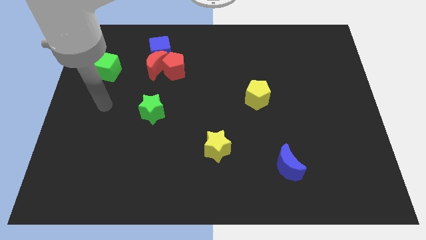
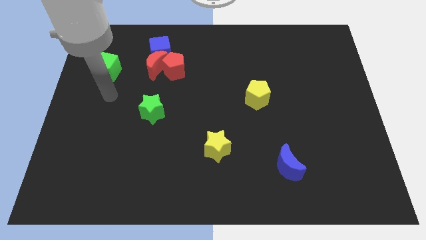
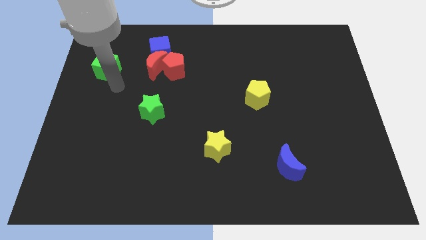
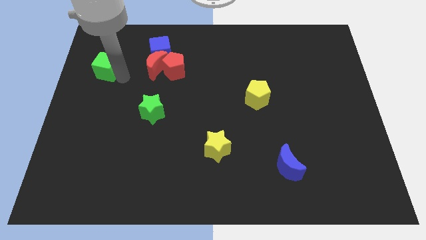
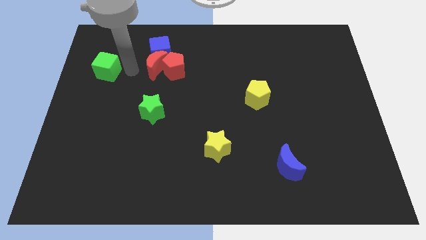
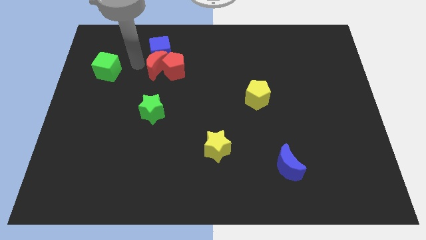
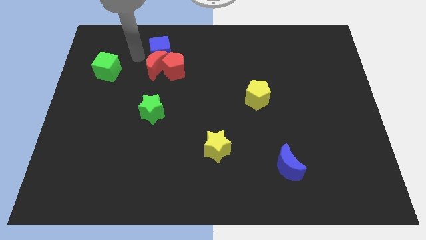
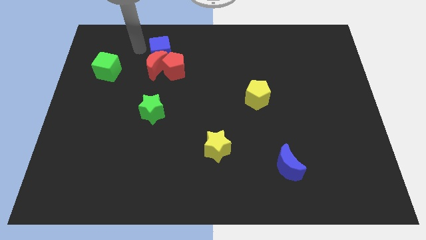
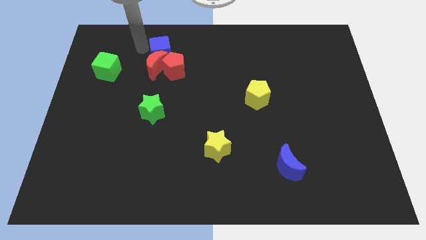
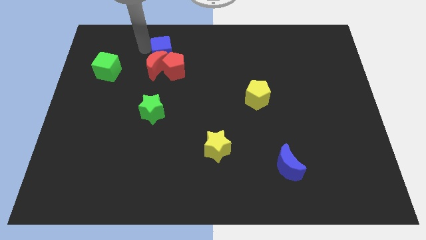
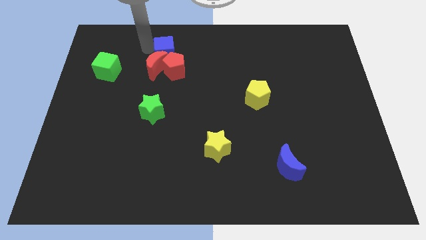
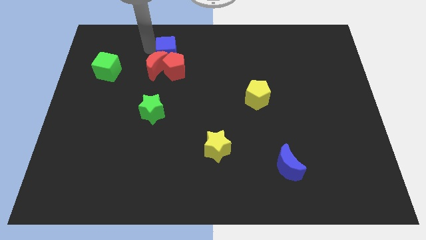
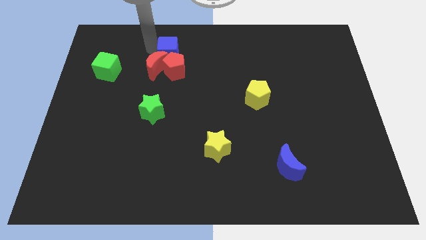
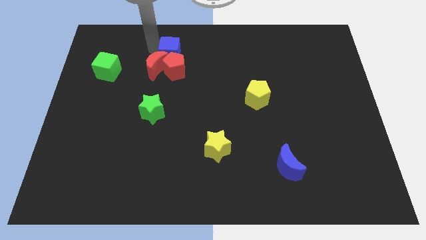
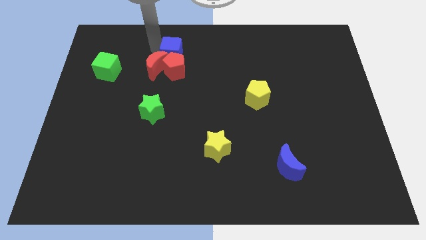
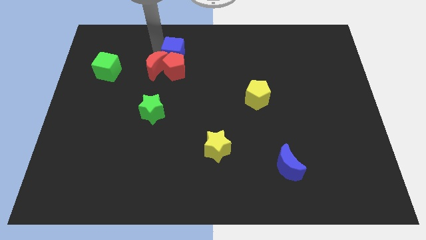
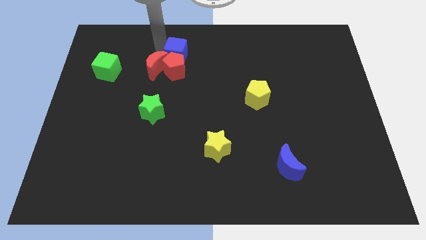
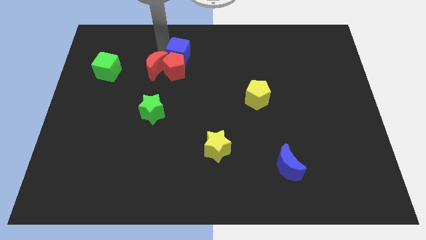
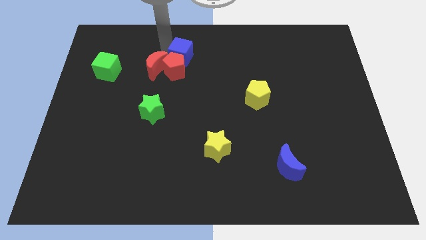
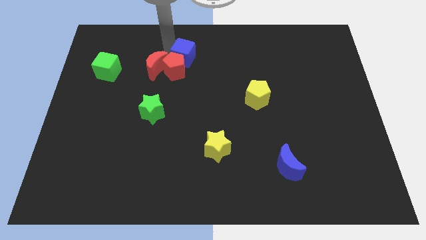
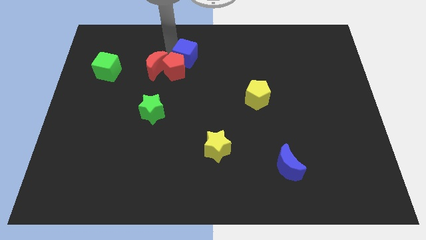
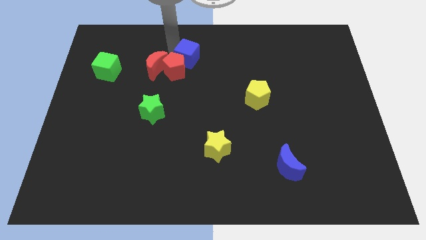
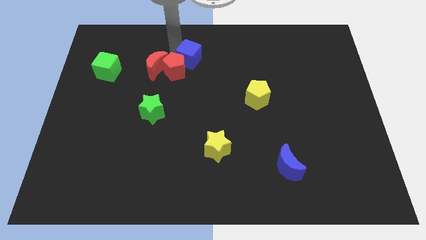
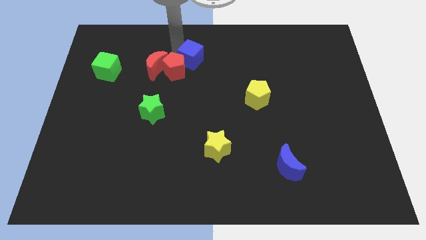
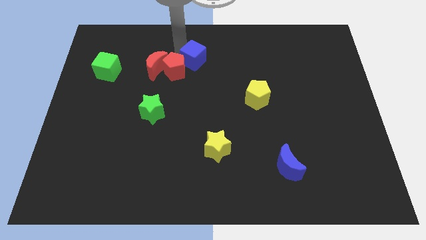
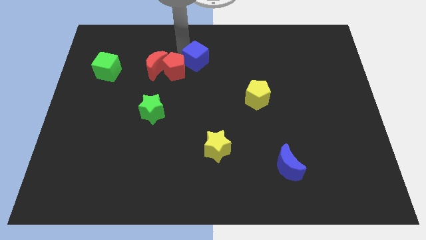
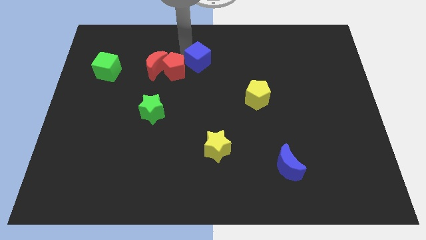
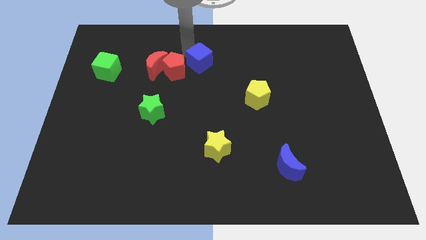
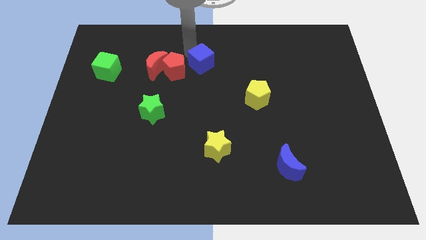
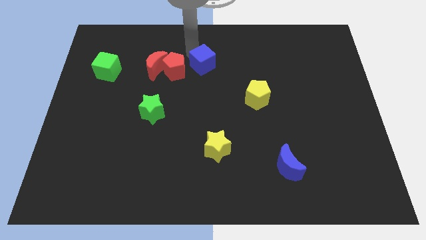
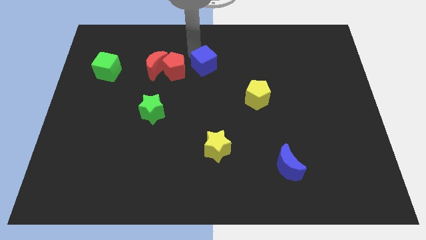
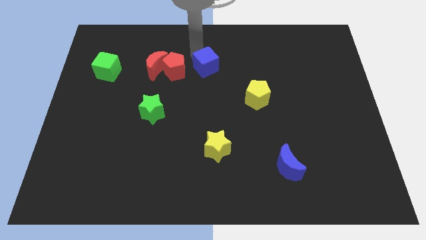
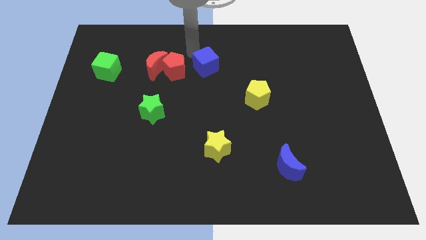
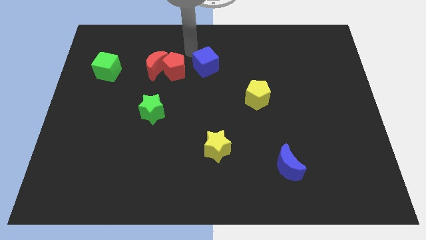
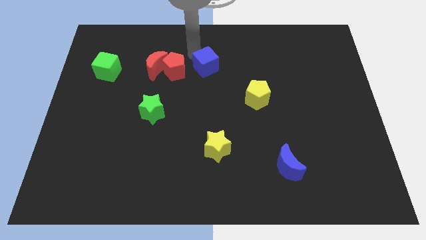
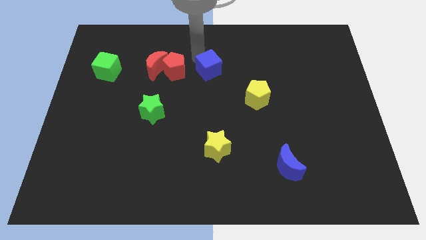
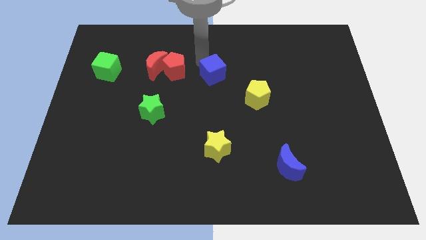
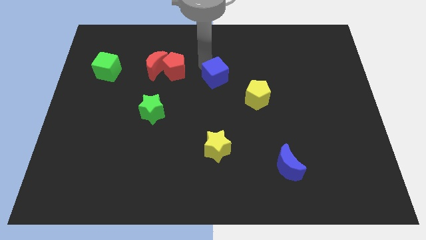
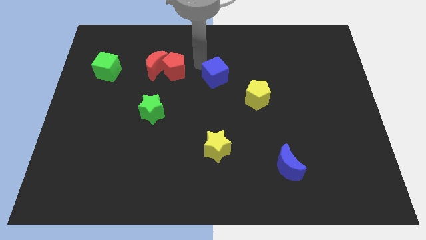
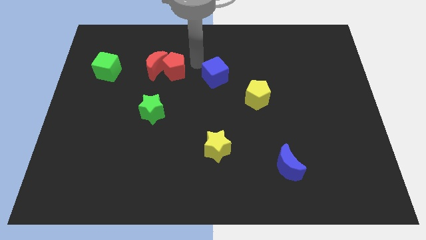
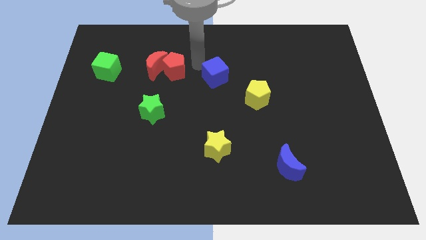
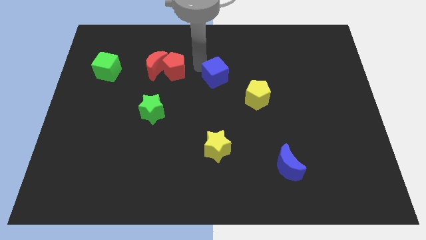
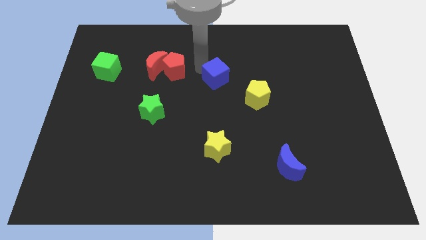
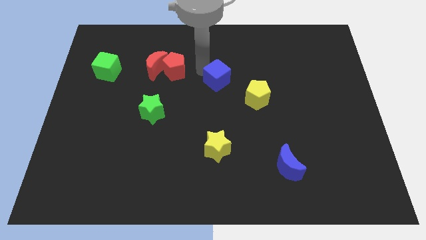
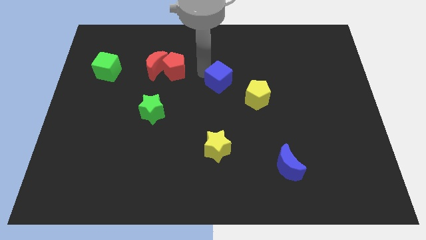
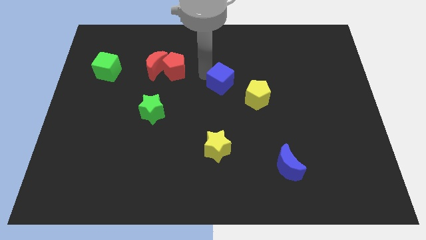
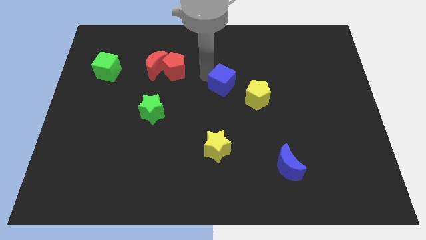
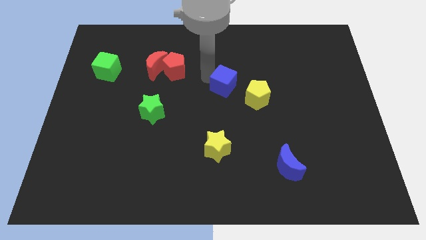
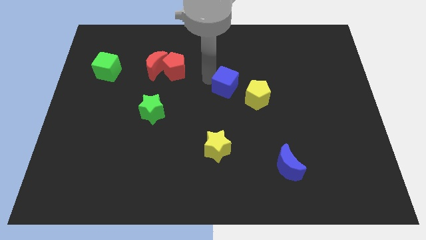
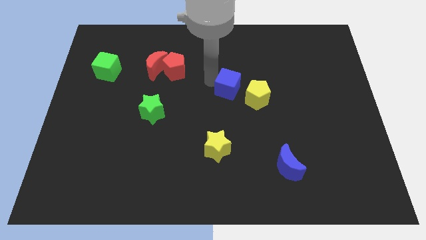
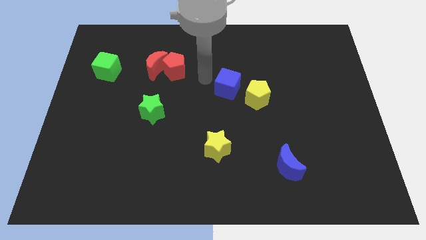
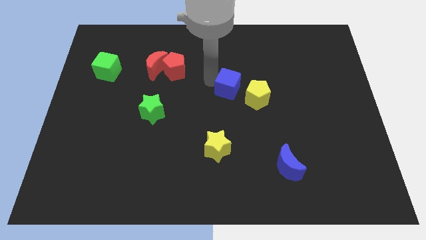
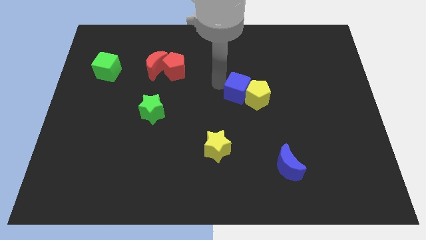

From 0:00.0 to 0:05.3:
slide the blue cube next to the yellow pentagon

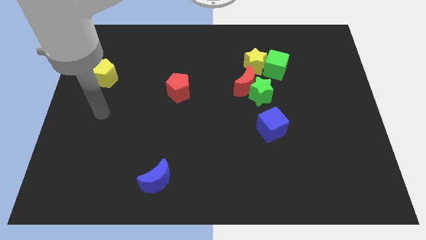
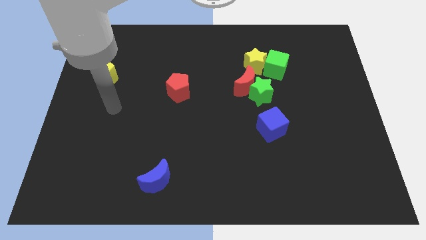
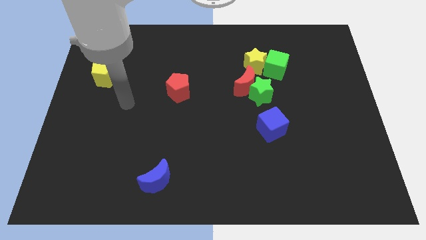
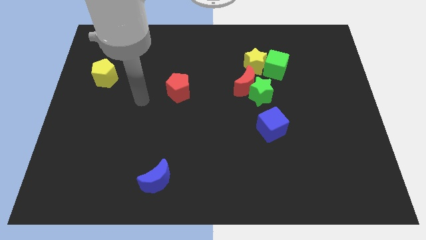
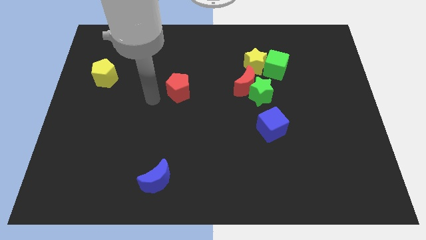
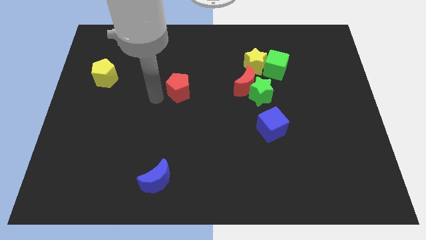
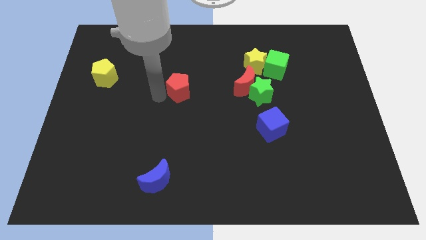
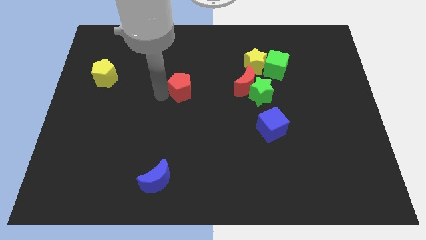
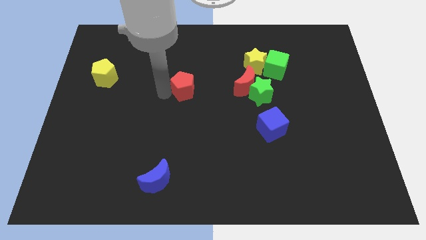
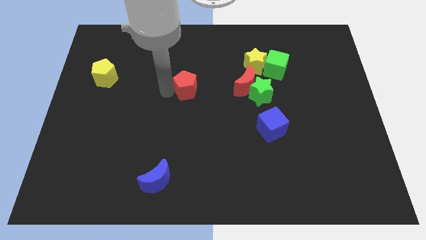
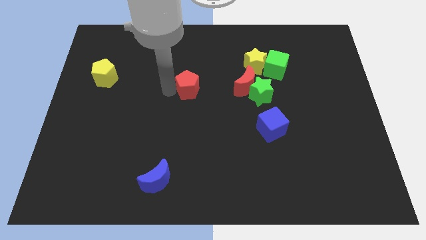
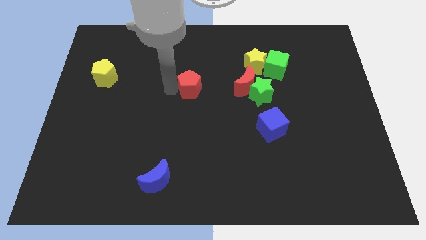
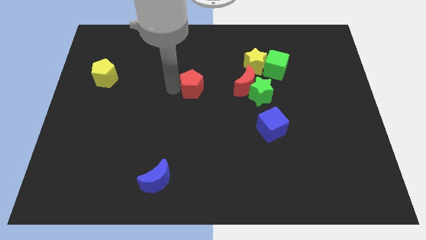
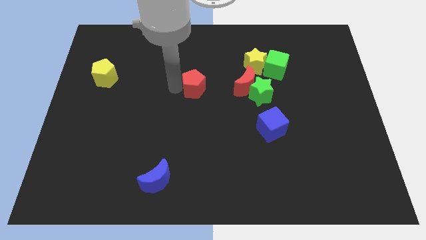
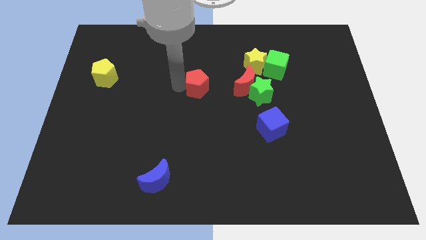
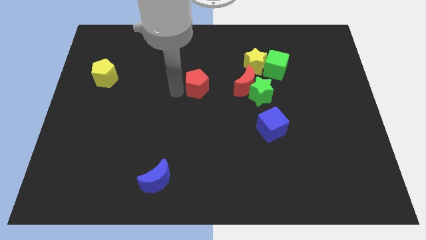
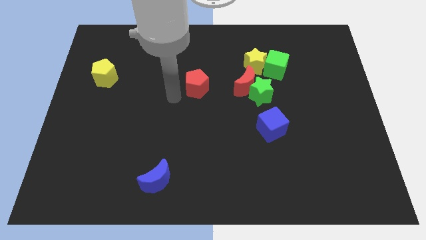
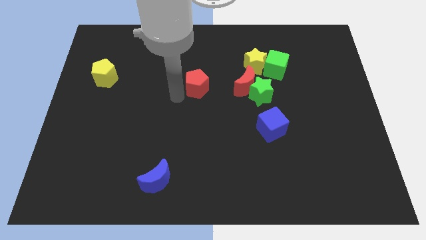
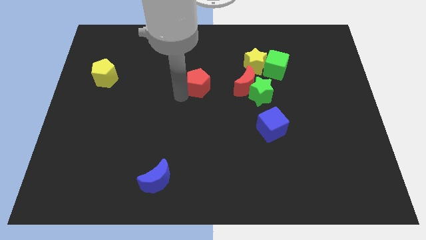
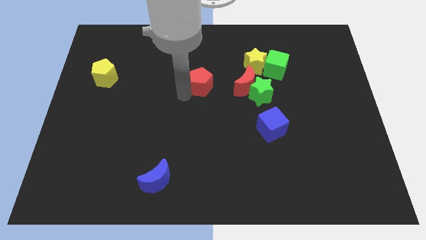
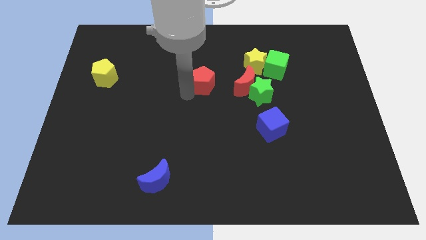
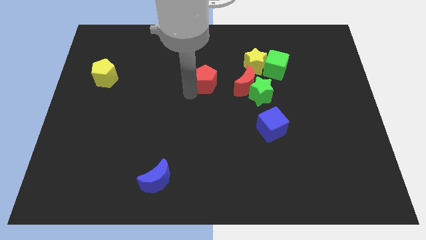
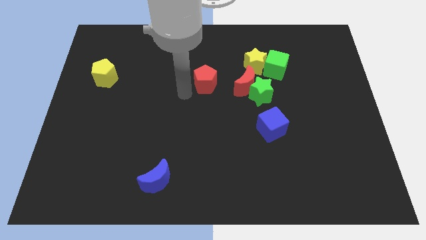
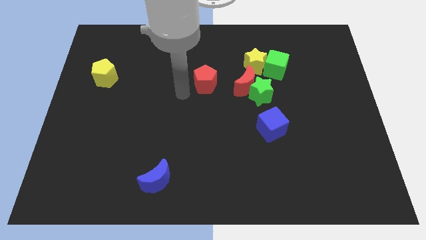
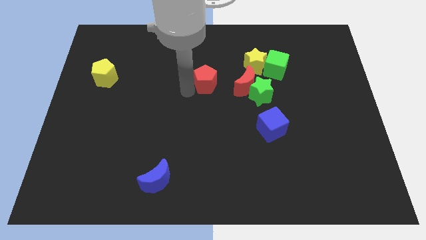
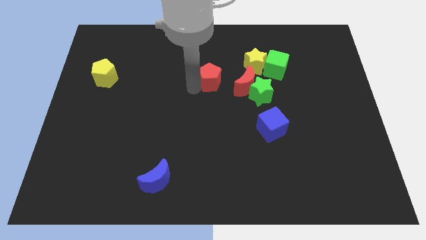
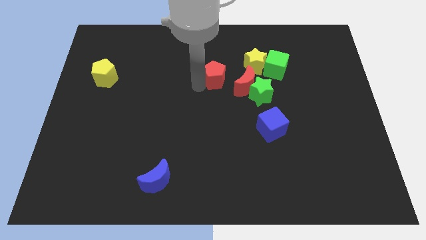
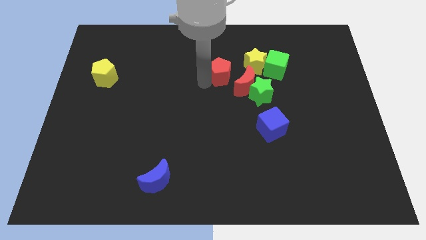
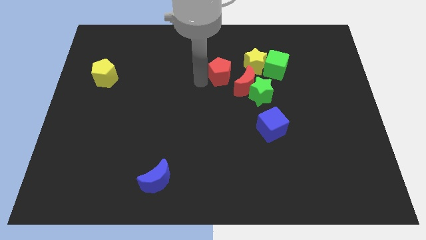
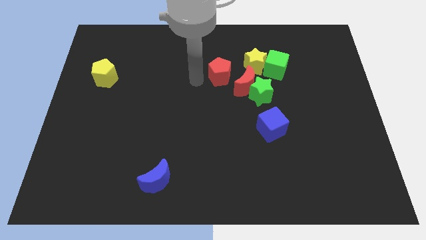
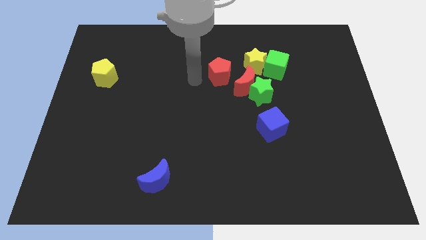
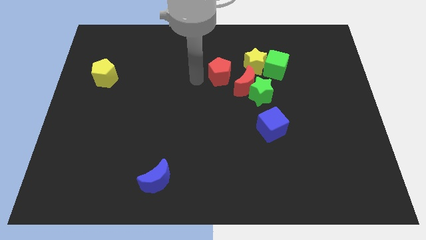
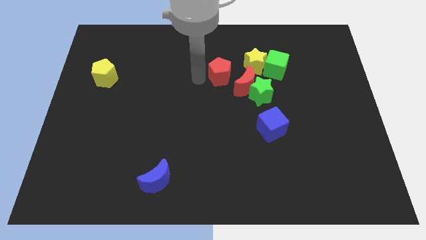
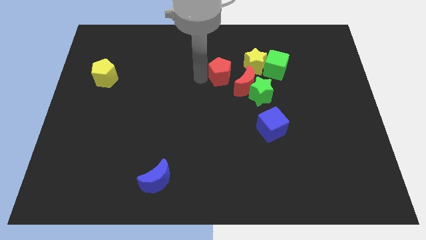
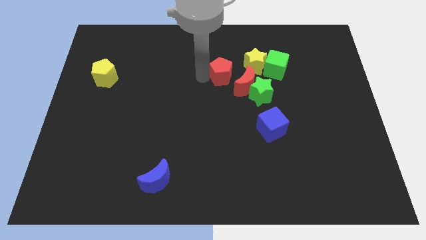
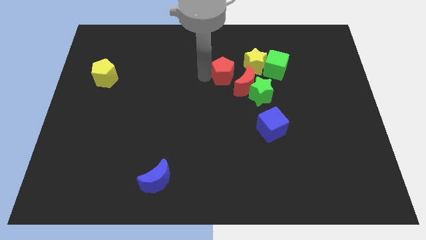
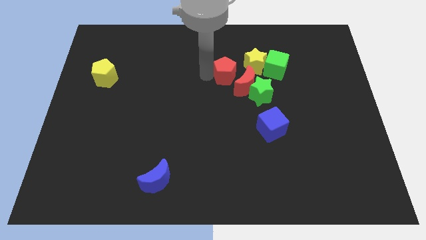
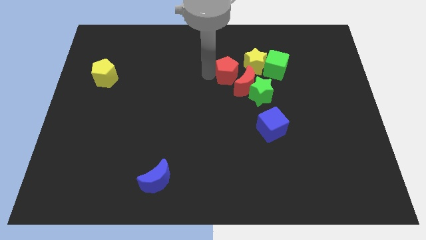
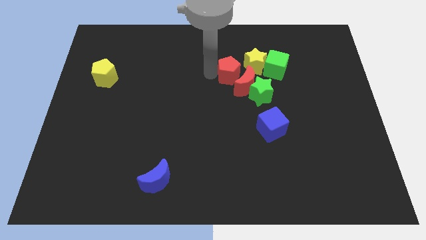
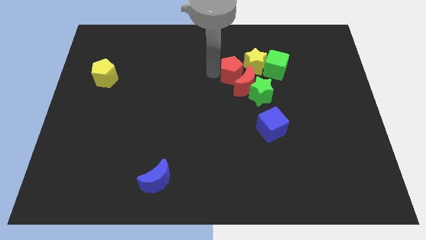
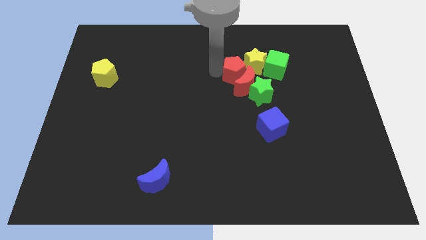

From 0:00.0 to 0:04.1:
put the red pentagon to the yellow star
